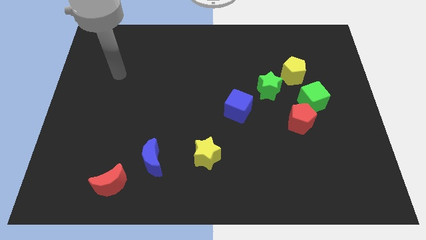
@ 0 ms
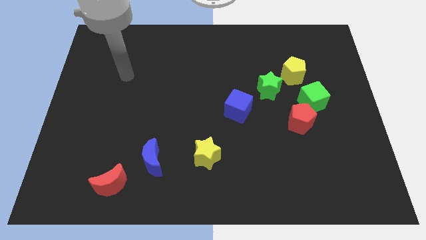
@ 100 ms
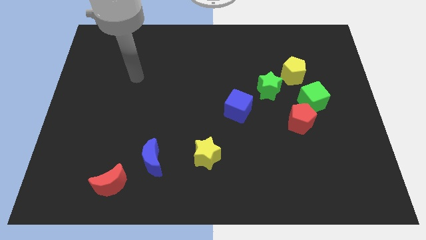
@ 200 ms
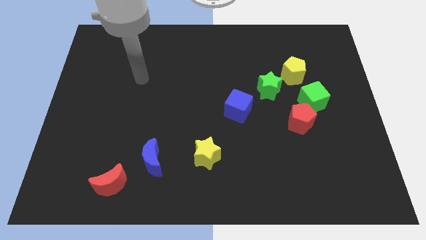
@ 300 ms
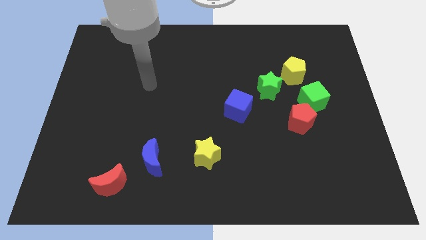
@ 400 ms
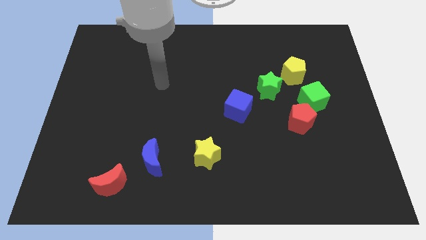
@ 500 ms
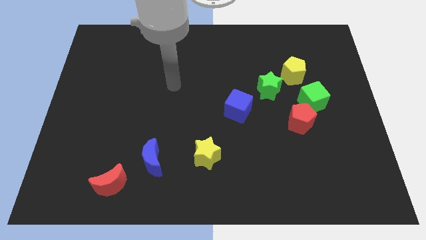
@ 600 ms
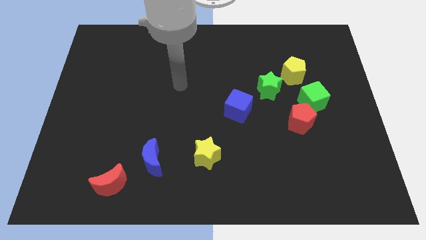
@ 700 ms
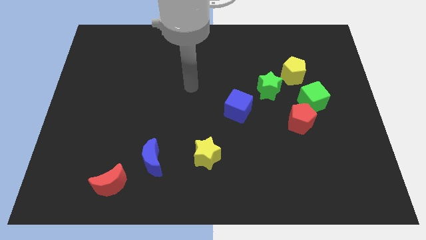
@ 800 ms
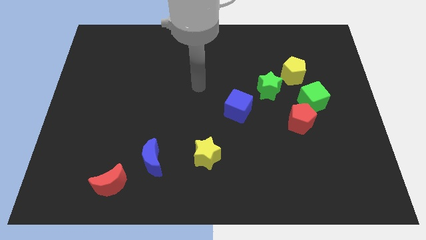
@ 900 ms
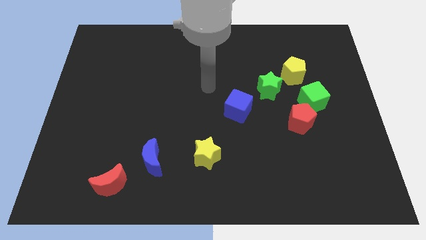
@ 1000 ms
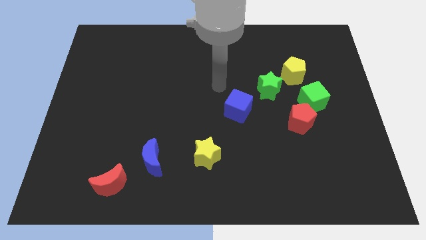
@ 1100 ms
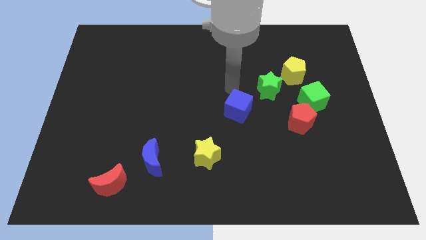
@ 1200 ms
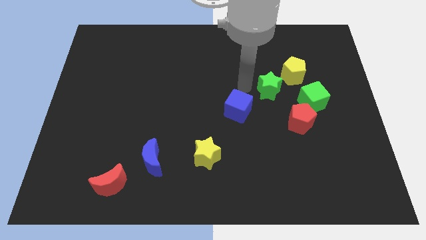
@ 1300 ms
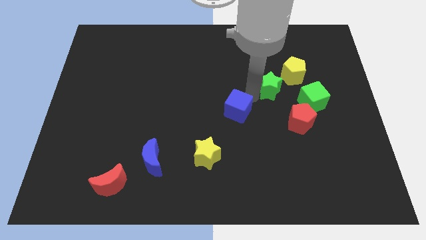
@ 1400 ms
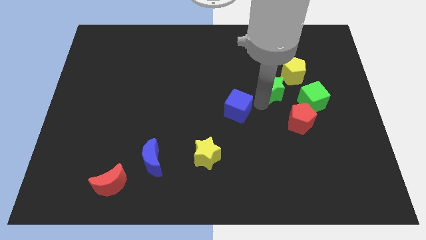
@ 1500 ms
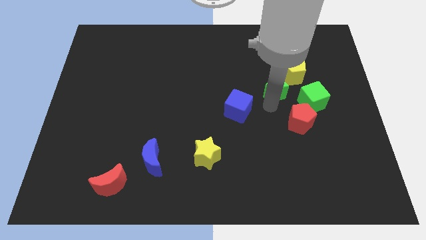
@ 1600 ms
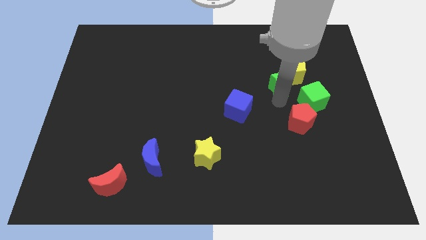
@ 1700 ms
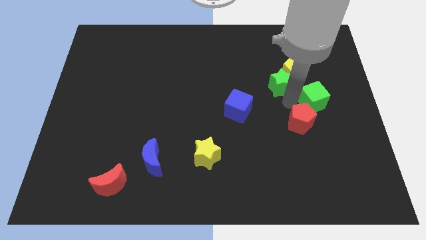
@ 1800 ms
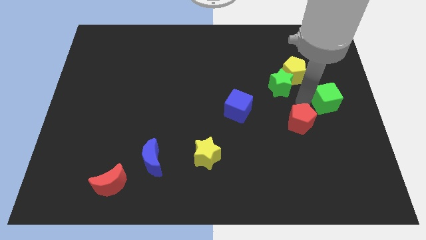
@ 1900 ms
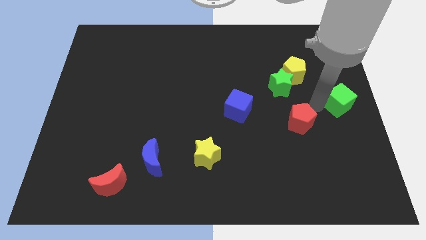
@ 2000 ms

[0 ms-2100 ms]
move the red pentagon away from the green cube

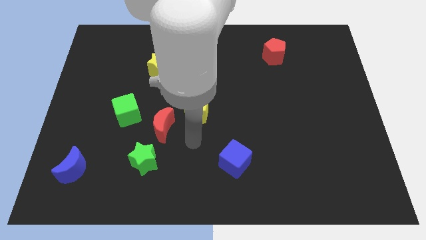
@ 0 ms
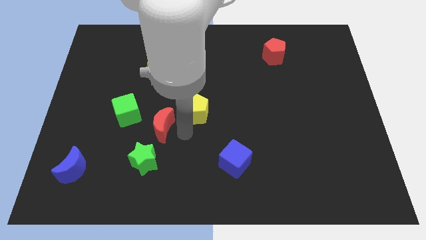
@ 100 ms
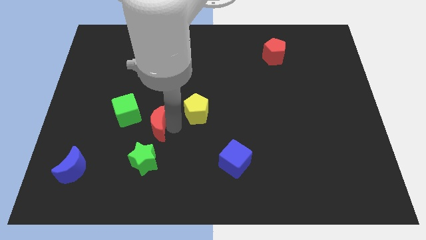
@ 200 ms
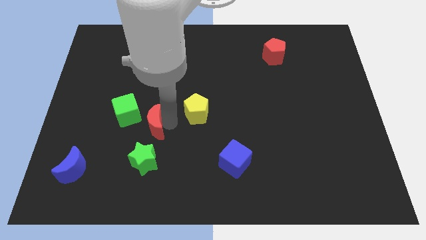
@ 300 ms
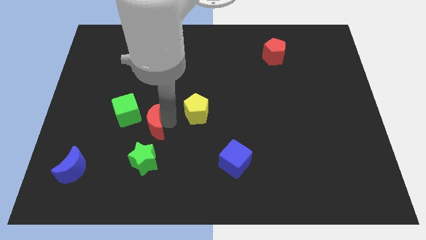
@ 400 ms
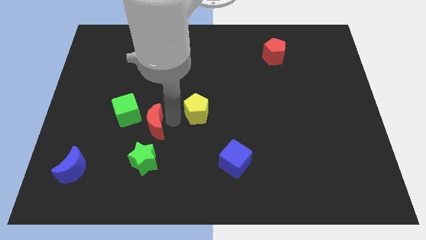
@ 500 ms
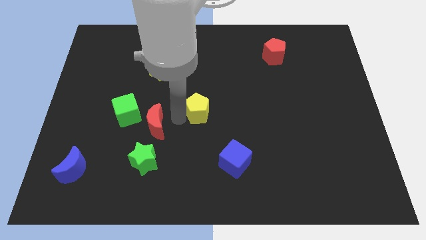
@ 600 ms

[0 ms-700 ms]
separate the yellow pentagon from the red moon

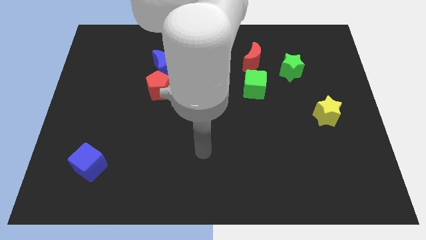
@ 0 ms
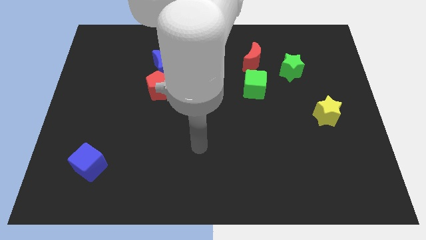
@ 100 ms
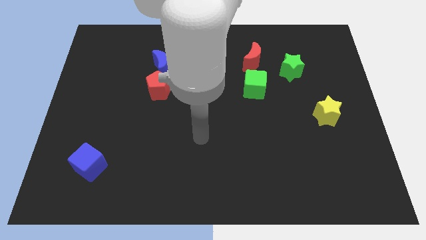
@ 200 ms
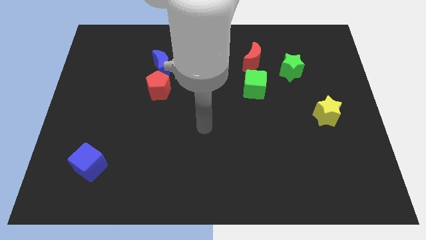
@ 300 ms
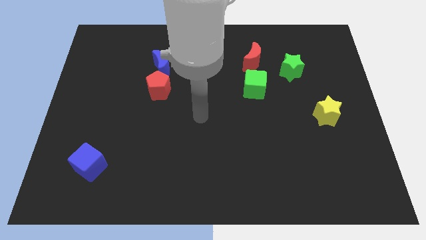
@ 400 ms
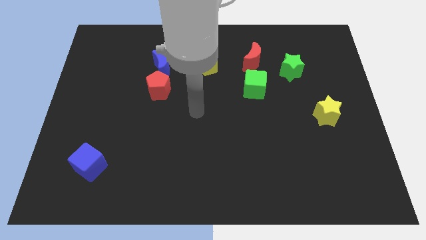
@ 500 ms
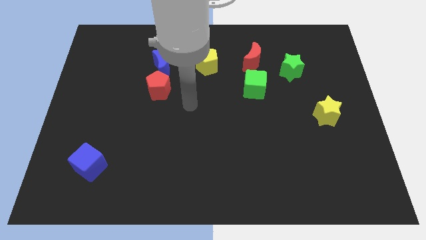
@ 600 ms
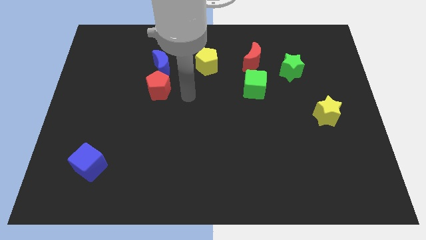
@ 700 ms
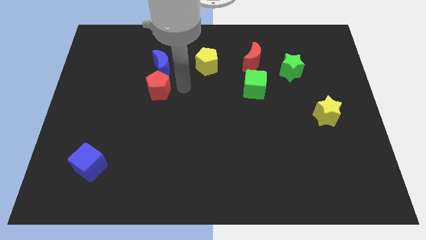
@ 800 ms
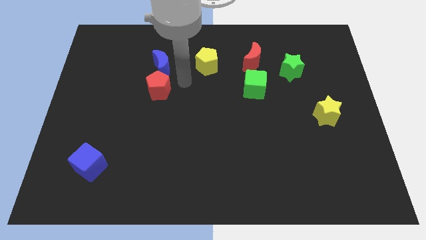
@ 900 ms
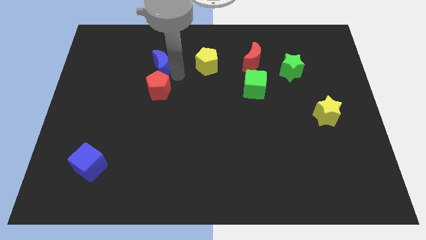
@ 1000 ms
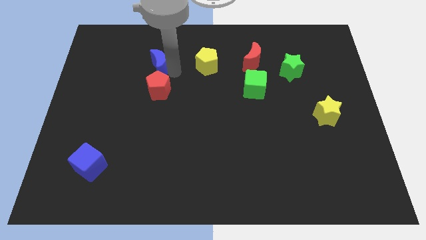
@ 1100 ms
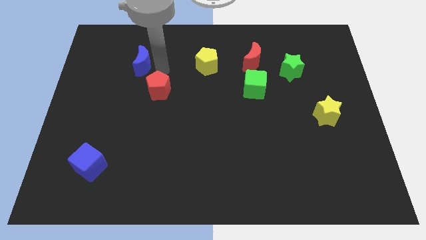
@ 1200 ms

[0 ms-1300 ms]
pull the red pentagon apart from the blue moon

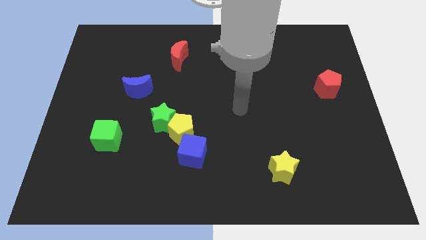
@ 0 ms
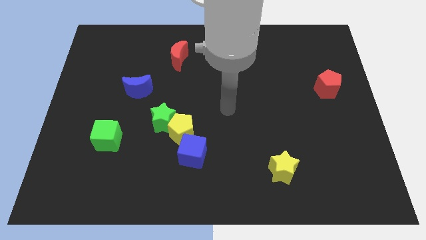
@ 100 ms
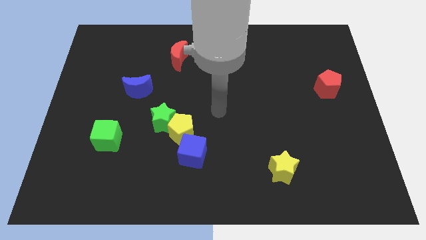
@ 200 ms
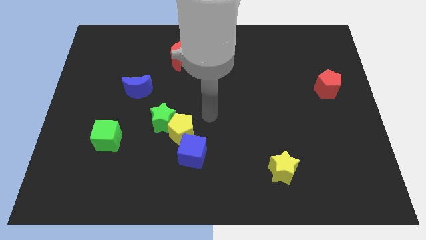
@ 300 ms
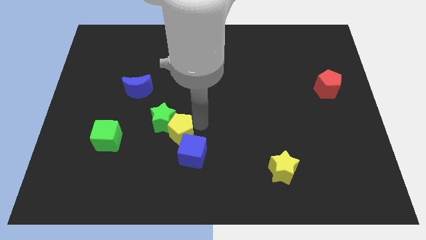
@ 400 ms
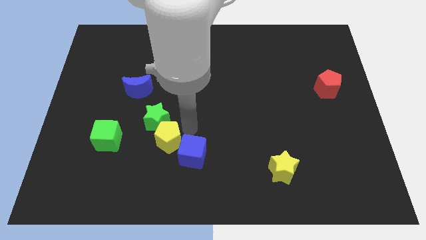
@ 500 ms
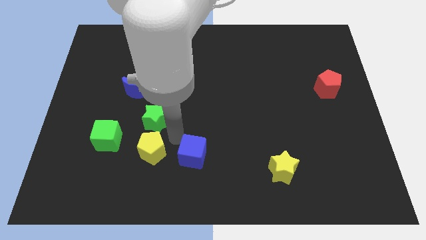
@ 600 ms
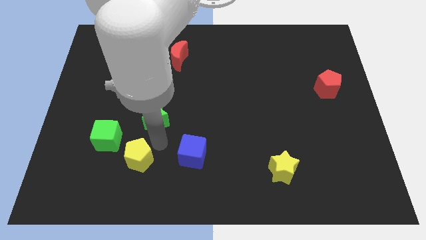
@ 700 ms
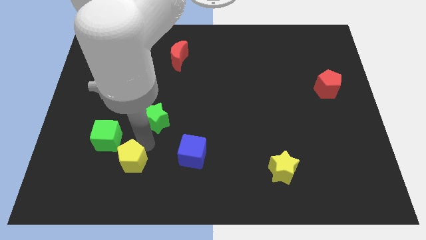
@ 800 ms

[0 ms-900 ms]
separate the green star from the yellow pentagon

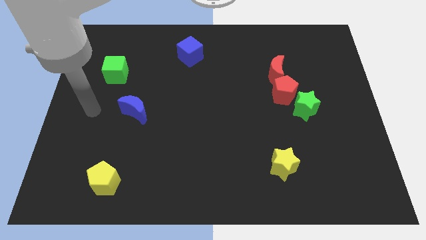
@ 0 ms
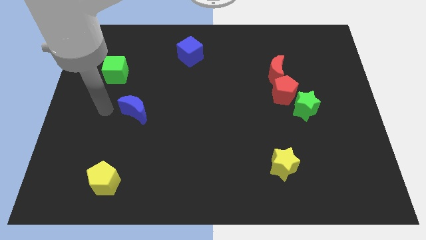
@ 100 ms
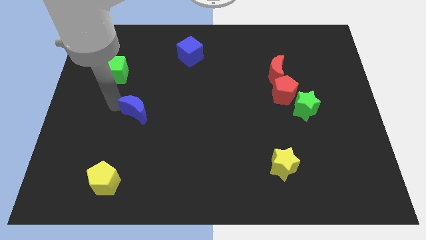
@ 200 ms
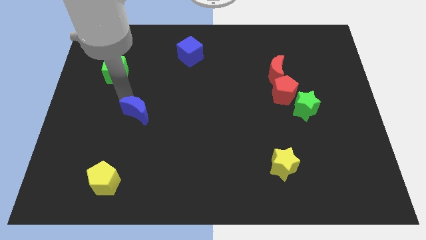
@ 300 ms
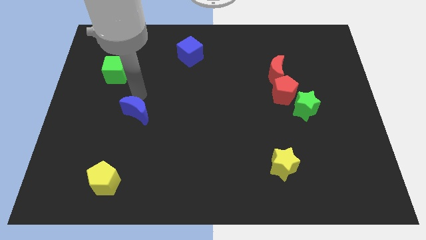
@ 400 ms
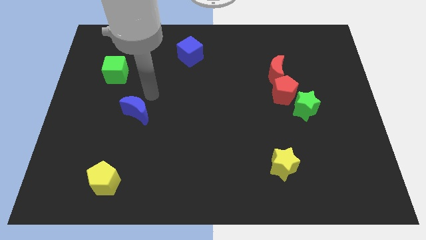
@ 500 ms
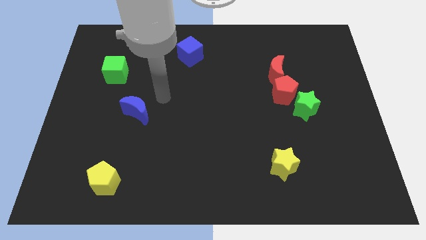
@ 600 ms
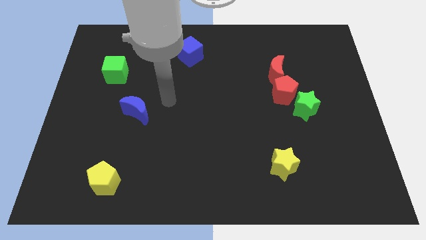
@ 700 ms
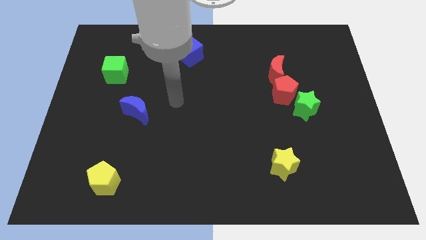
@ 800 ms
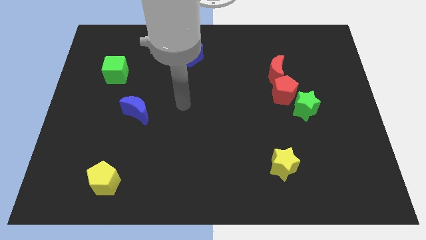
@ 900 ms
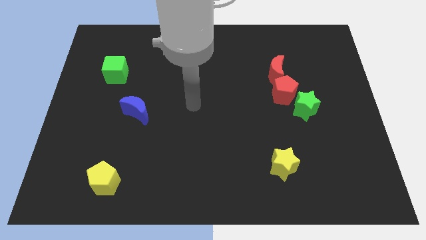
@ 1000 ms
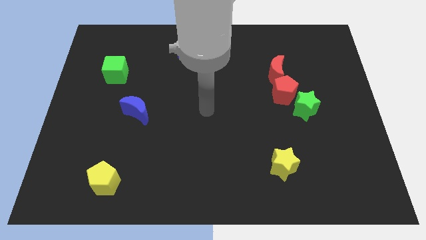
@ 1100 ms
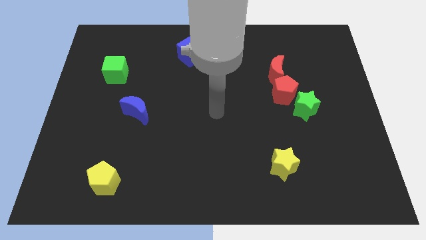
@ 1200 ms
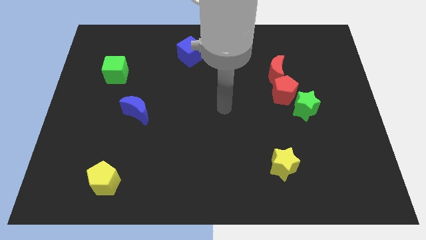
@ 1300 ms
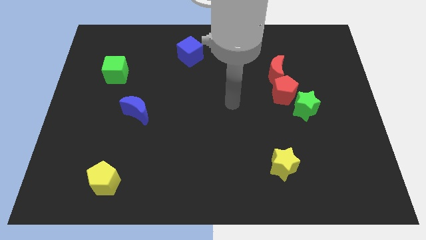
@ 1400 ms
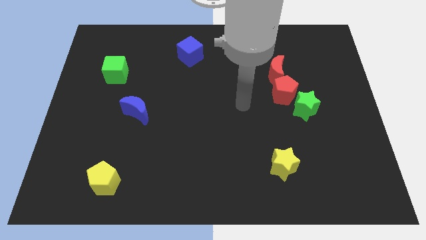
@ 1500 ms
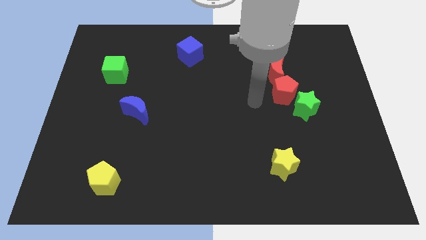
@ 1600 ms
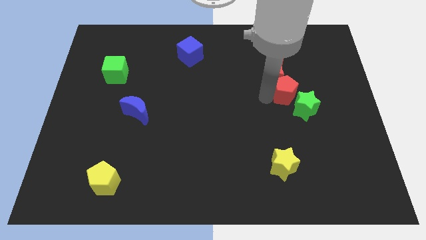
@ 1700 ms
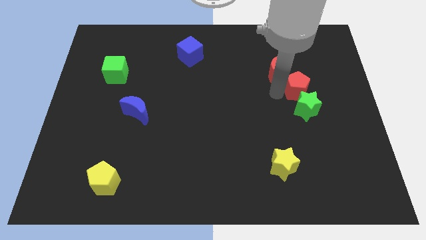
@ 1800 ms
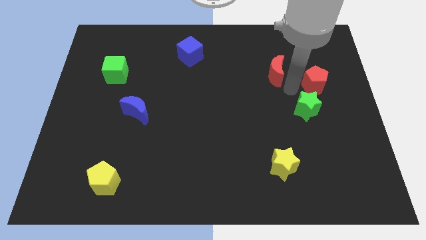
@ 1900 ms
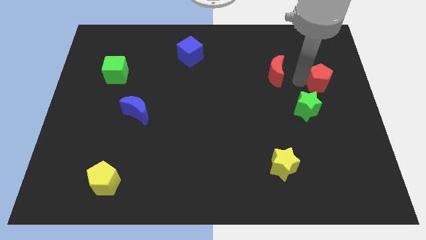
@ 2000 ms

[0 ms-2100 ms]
pull the red moon apart from the red pentagon

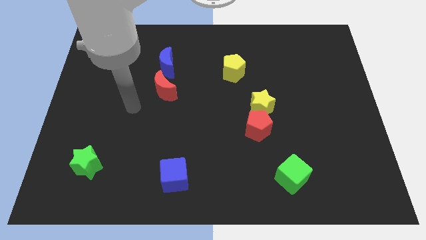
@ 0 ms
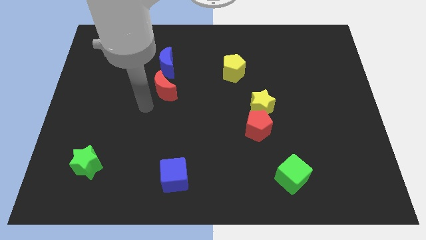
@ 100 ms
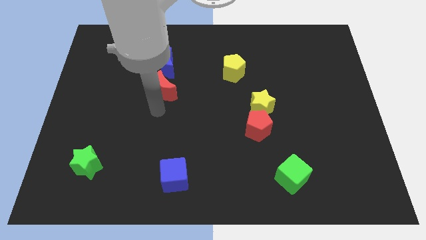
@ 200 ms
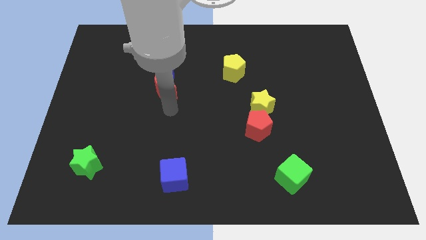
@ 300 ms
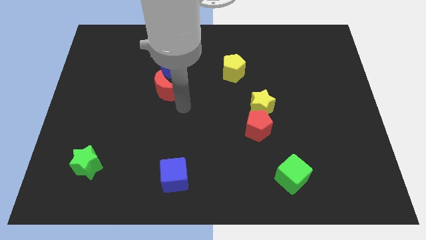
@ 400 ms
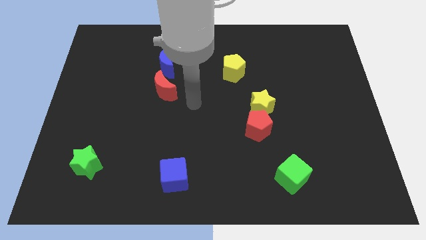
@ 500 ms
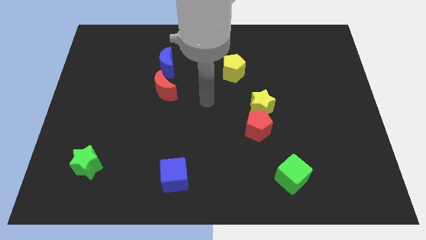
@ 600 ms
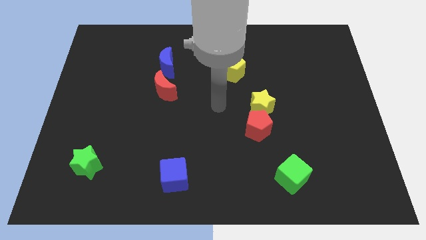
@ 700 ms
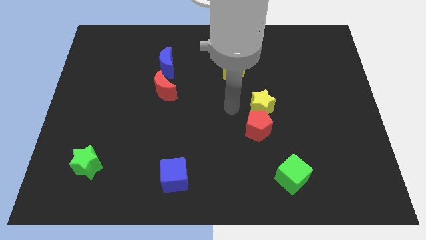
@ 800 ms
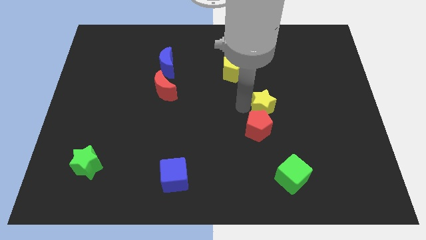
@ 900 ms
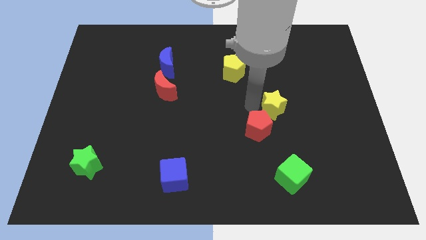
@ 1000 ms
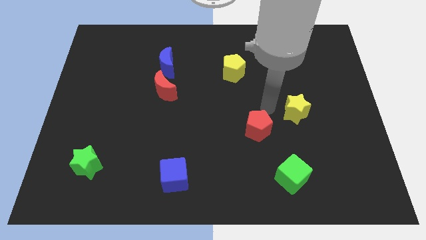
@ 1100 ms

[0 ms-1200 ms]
separate the red pentagon from the yellow star

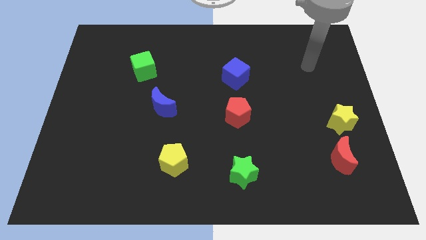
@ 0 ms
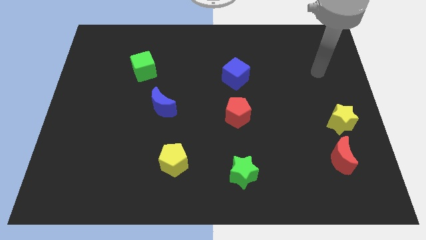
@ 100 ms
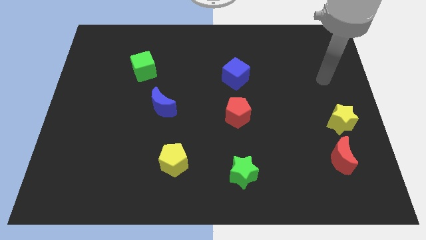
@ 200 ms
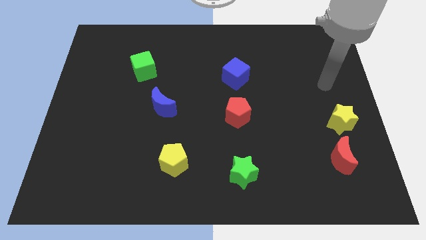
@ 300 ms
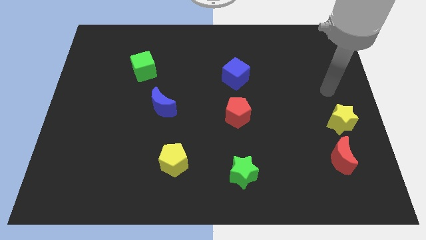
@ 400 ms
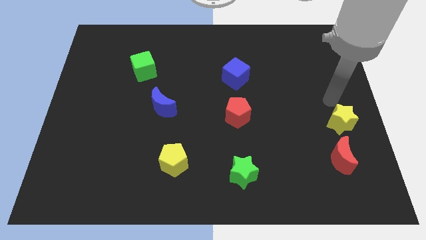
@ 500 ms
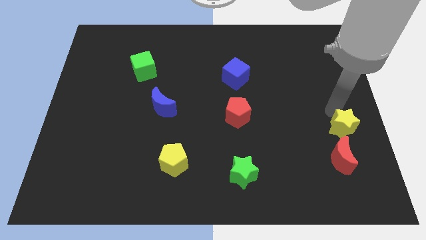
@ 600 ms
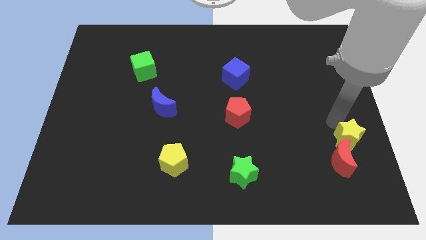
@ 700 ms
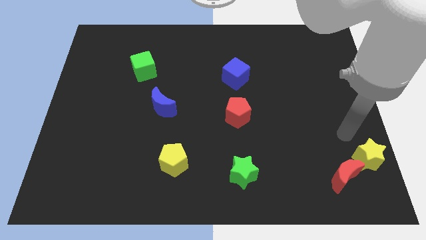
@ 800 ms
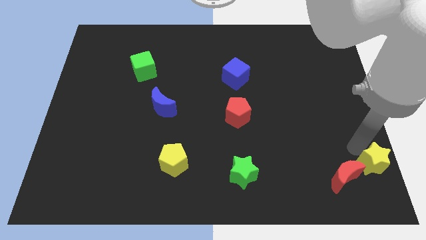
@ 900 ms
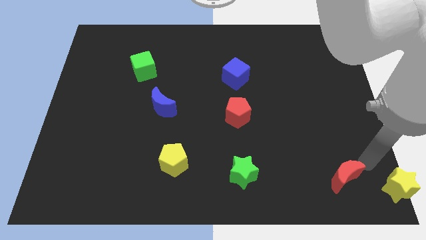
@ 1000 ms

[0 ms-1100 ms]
separate the red moon from the yellow star

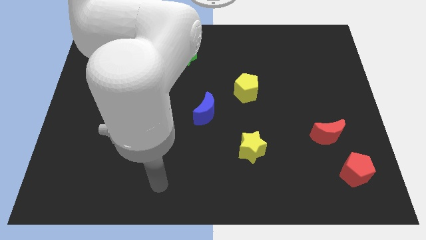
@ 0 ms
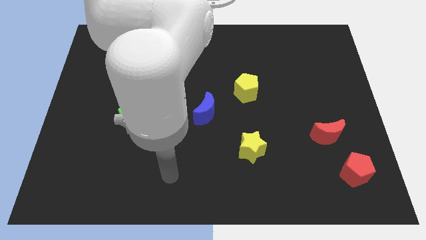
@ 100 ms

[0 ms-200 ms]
separate the red moon from the red pentagon
